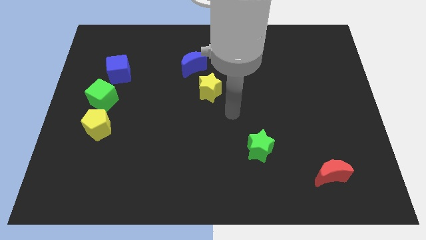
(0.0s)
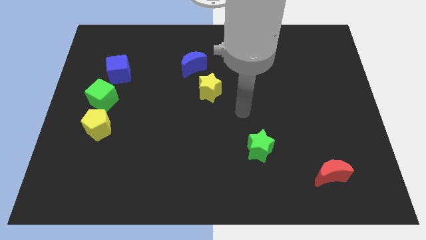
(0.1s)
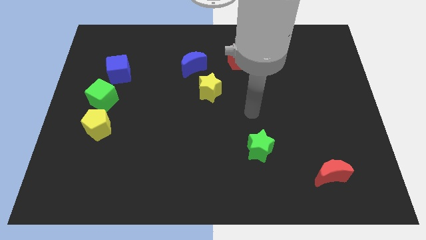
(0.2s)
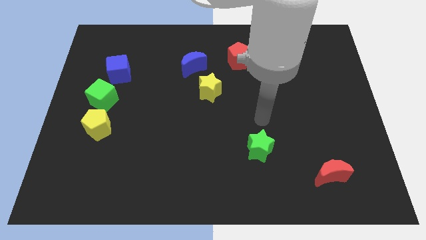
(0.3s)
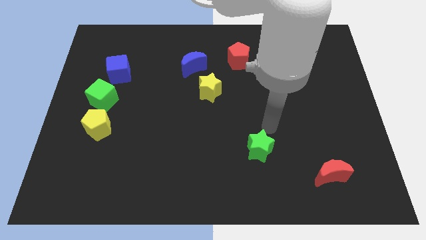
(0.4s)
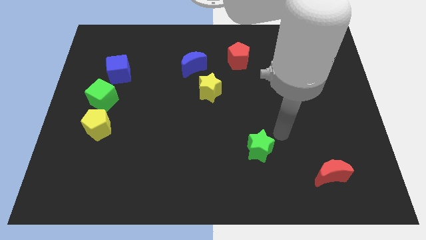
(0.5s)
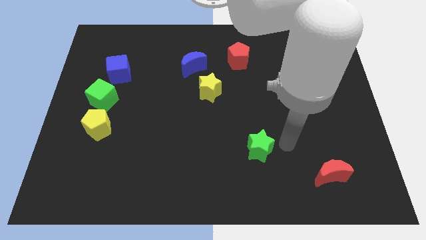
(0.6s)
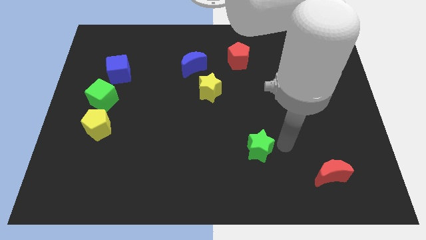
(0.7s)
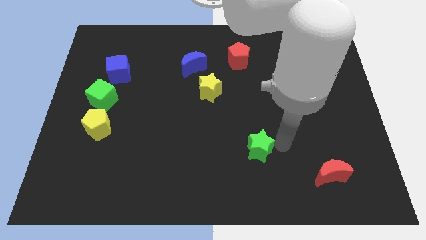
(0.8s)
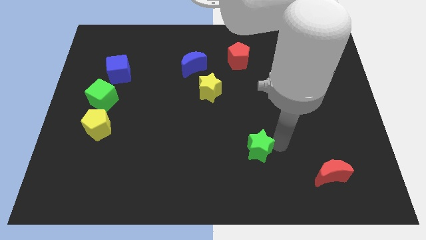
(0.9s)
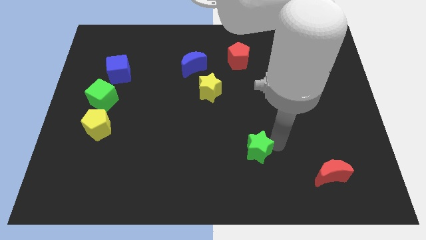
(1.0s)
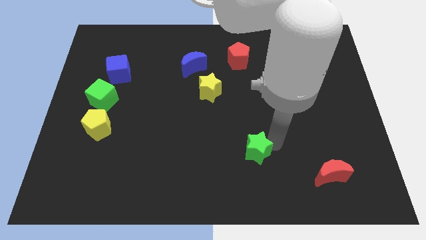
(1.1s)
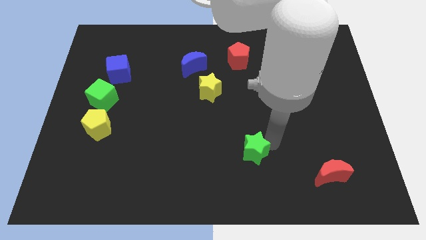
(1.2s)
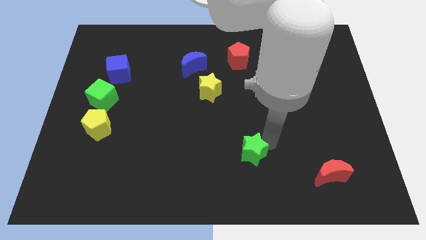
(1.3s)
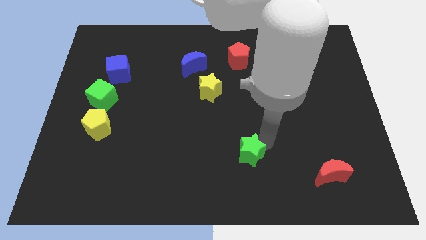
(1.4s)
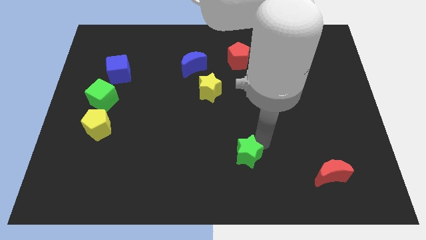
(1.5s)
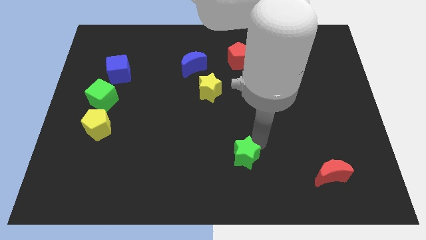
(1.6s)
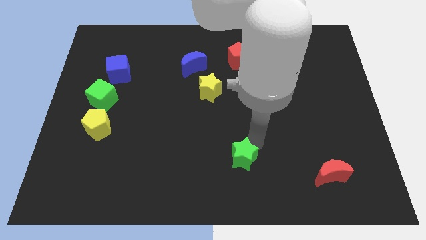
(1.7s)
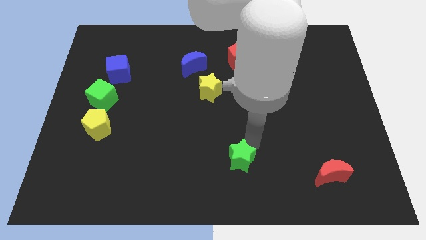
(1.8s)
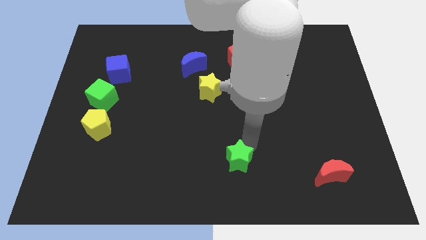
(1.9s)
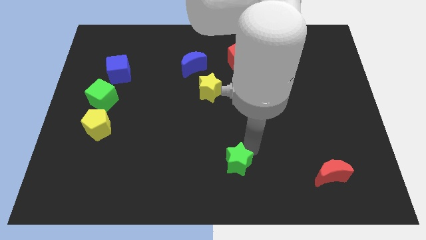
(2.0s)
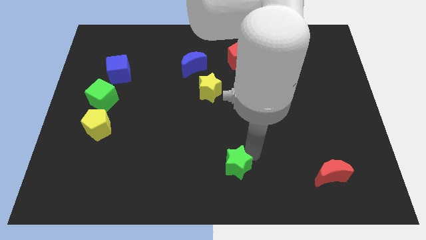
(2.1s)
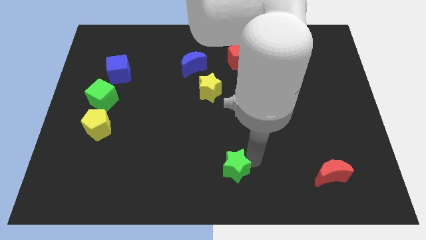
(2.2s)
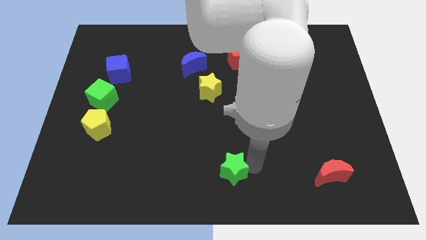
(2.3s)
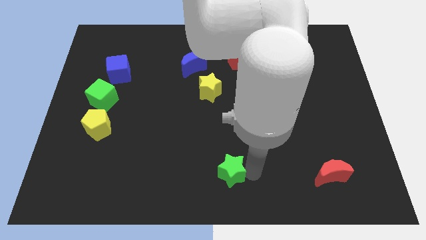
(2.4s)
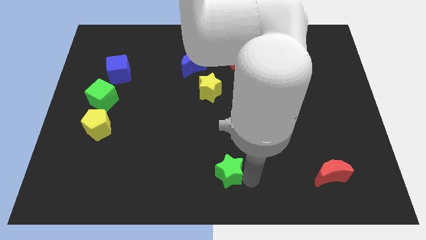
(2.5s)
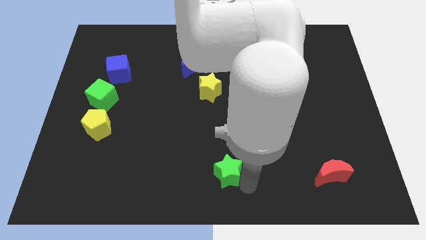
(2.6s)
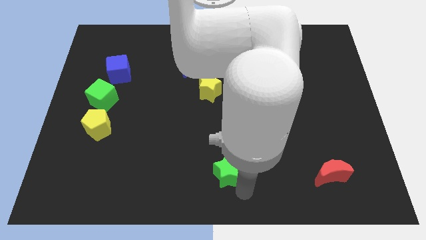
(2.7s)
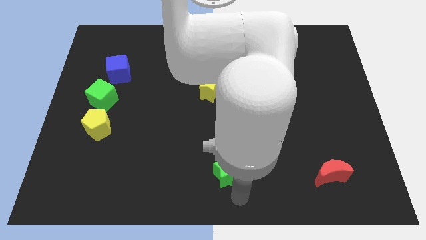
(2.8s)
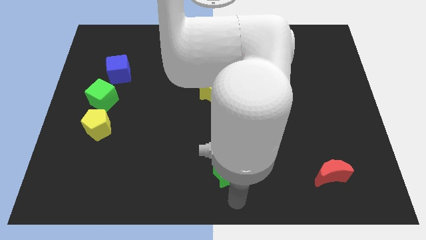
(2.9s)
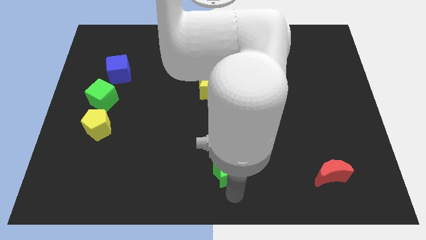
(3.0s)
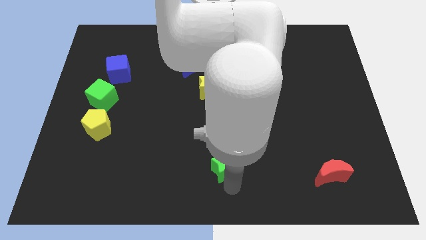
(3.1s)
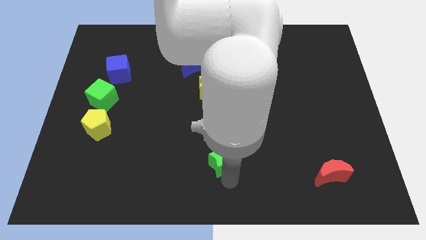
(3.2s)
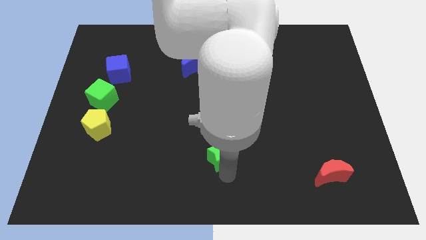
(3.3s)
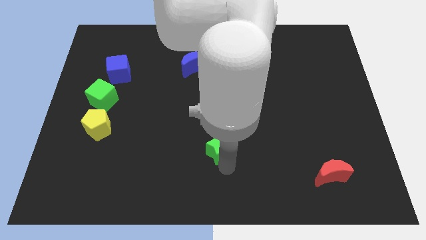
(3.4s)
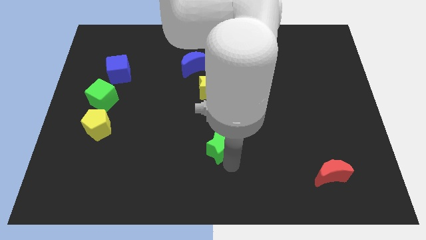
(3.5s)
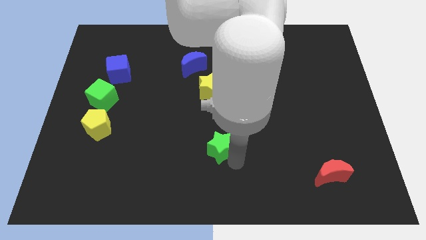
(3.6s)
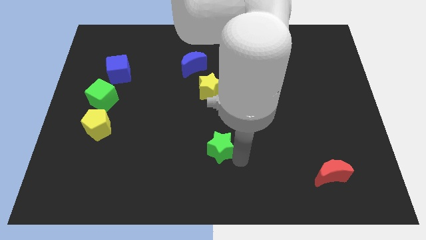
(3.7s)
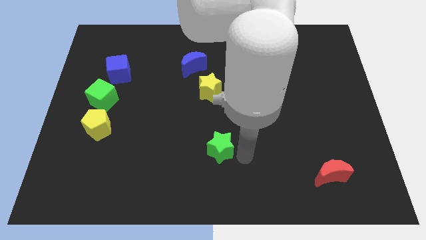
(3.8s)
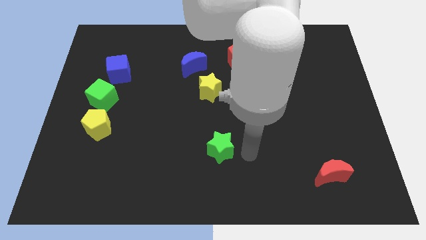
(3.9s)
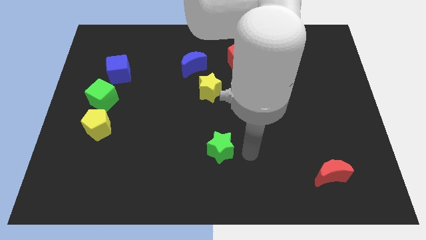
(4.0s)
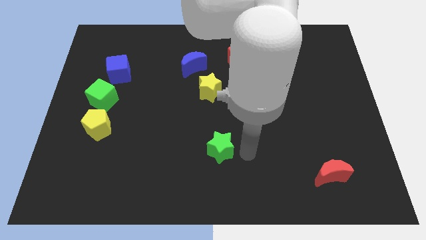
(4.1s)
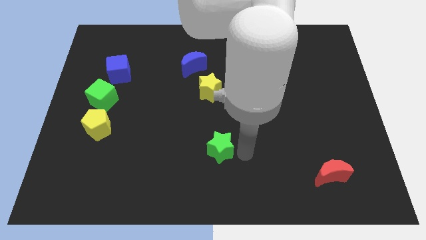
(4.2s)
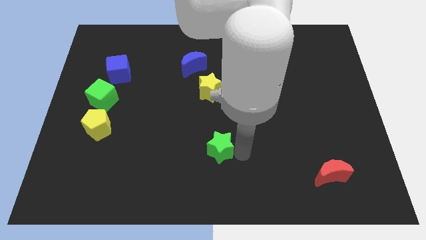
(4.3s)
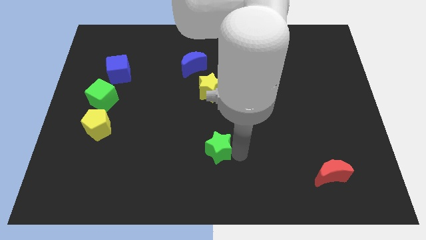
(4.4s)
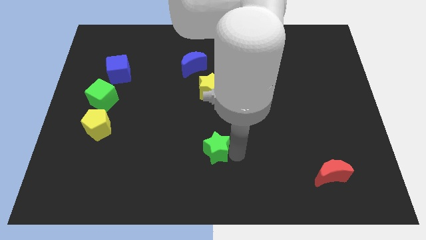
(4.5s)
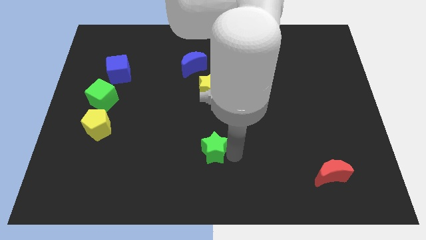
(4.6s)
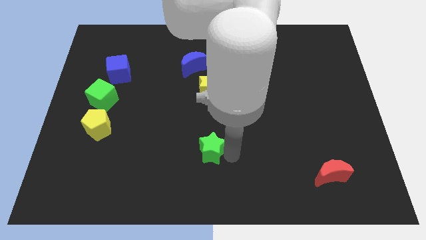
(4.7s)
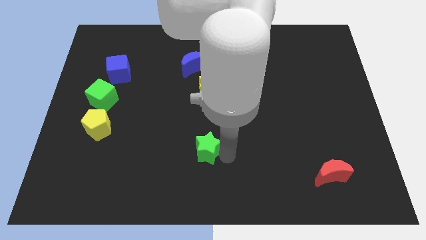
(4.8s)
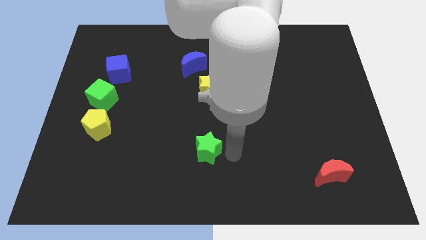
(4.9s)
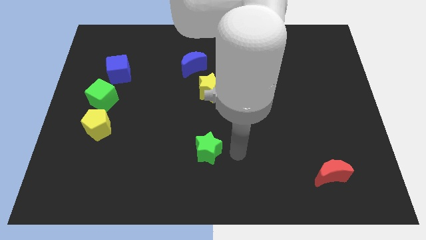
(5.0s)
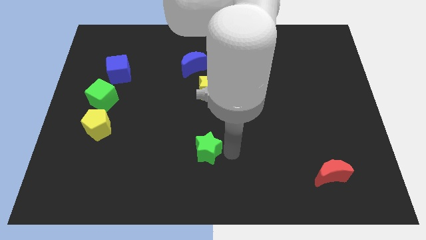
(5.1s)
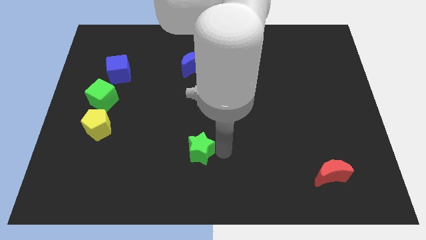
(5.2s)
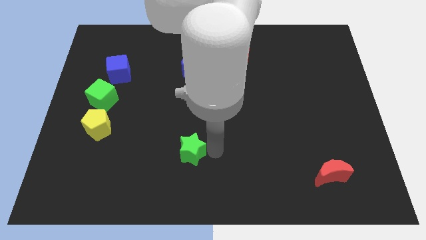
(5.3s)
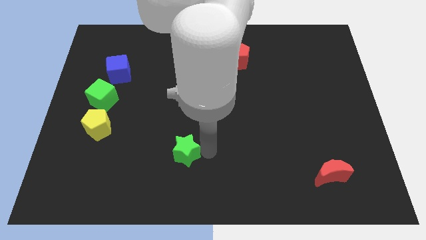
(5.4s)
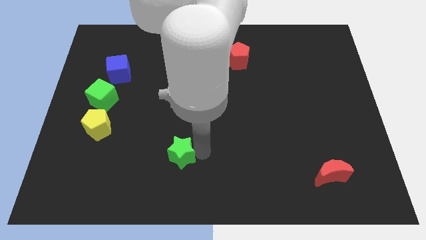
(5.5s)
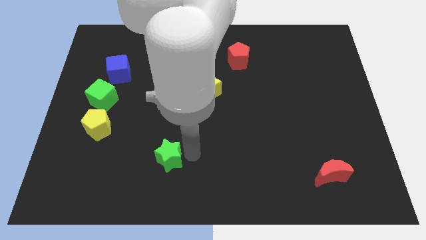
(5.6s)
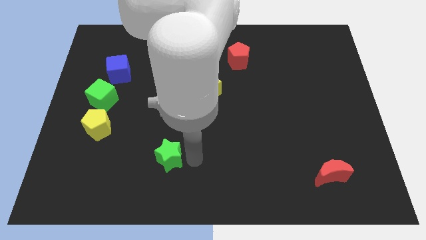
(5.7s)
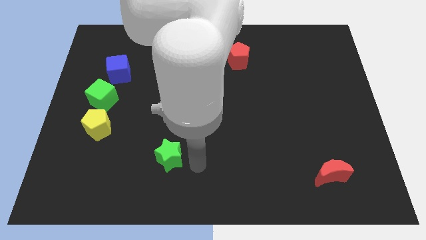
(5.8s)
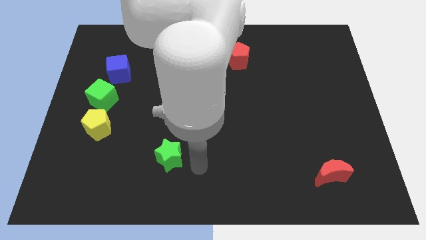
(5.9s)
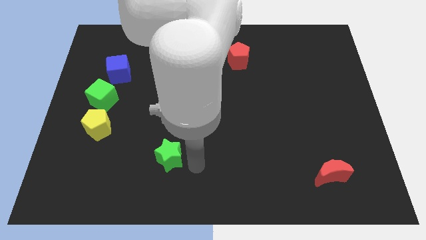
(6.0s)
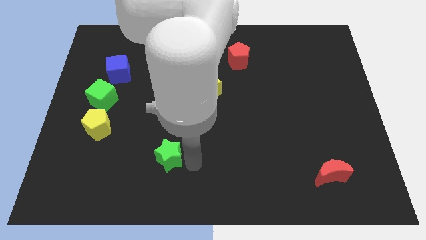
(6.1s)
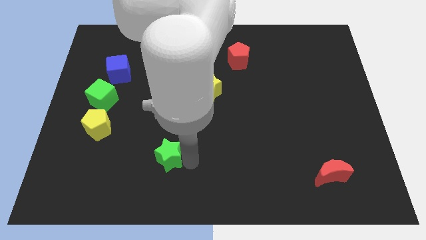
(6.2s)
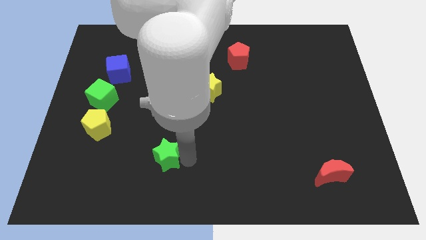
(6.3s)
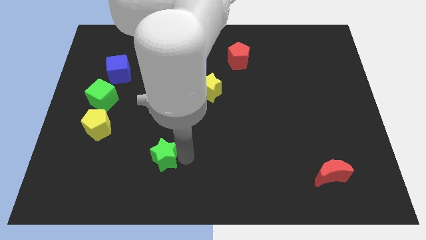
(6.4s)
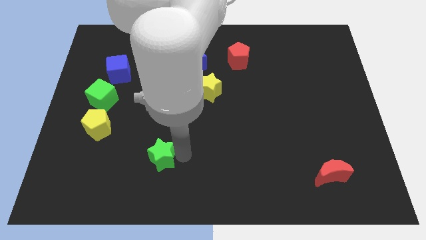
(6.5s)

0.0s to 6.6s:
slide the green star to the left

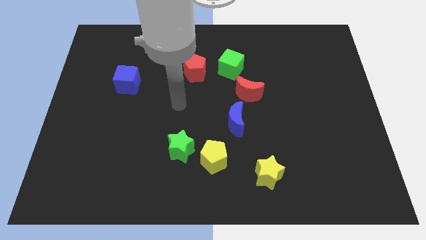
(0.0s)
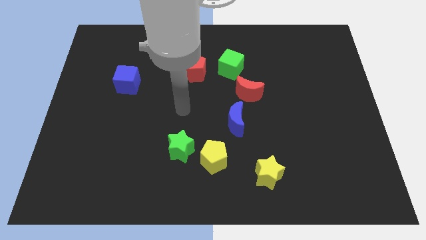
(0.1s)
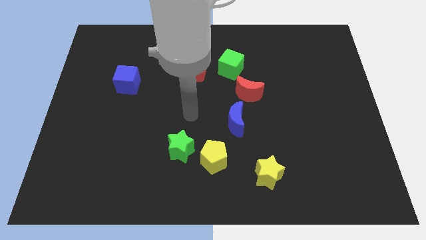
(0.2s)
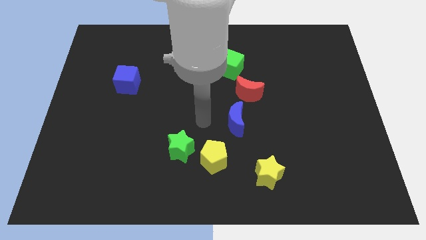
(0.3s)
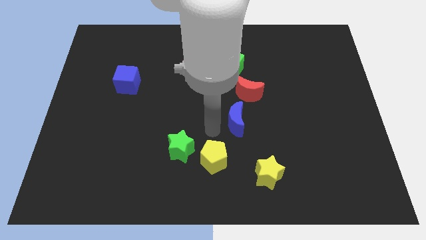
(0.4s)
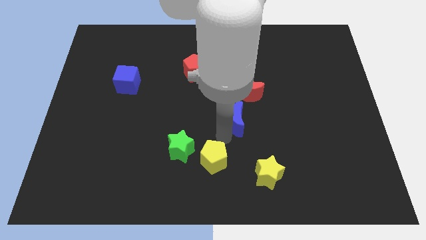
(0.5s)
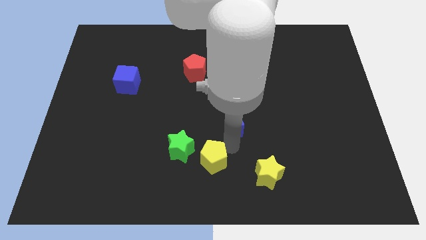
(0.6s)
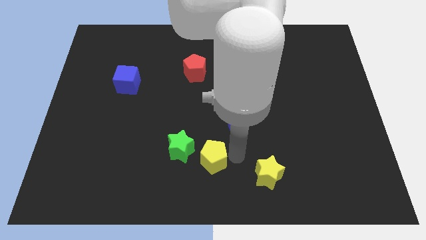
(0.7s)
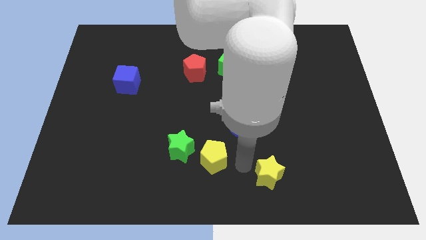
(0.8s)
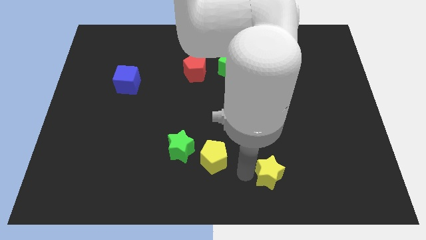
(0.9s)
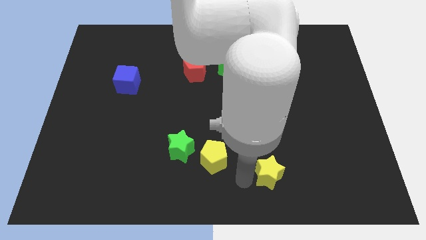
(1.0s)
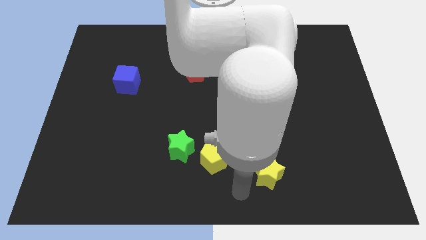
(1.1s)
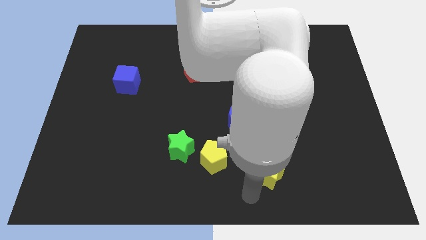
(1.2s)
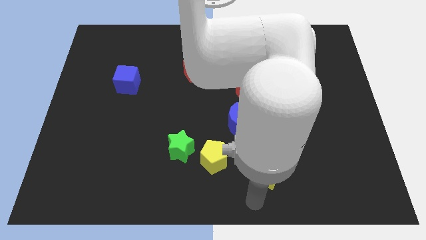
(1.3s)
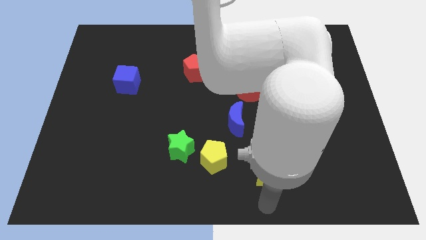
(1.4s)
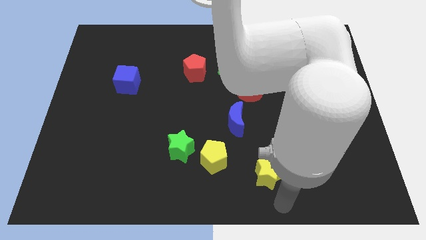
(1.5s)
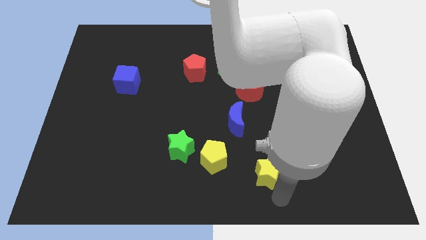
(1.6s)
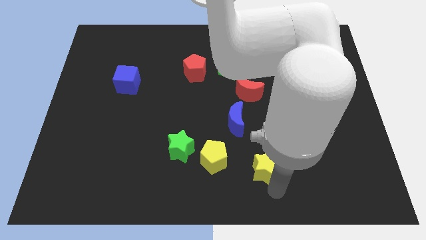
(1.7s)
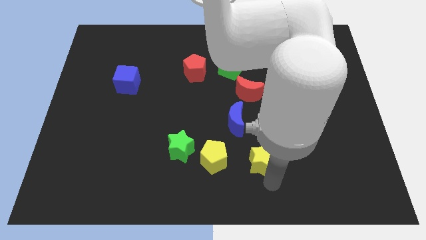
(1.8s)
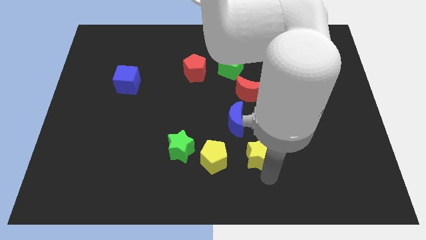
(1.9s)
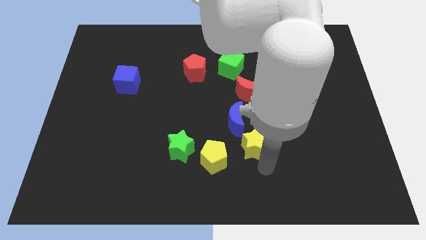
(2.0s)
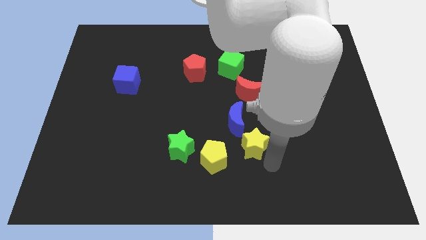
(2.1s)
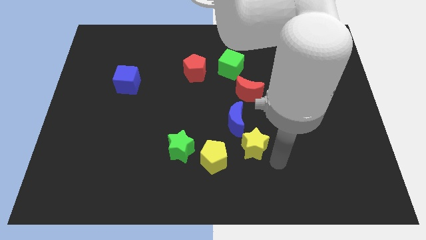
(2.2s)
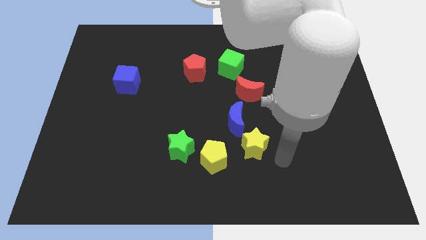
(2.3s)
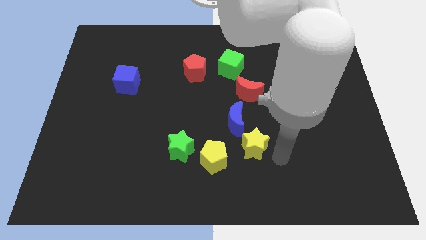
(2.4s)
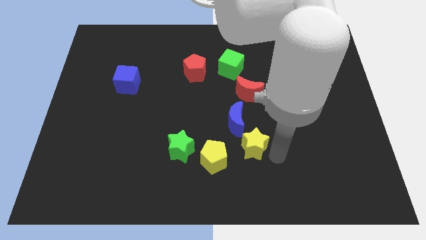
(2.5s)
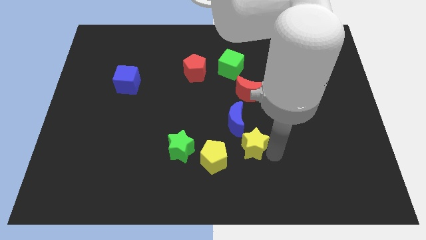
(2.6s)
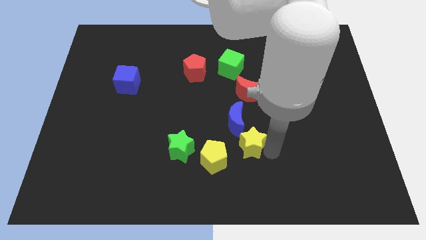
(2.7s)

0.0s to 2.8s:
slightly move the yellow star up and left diagonally
